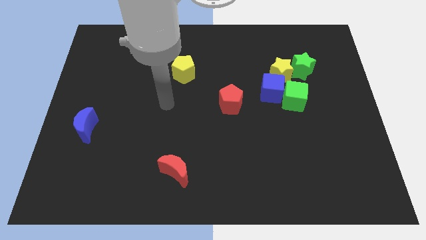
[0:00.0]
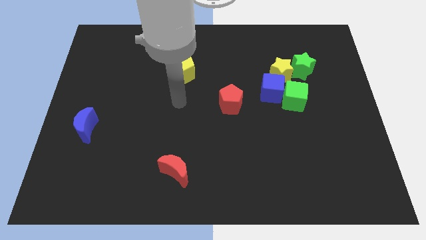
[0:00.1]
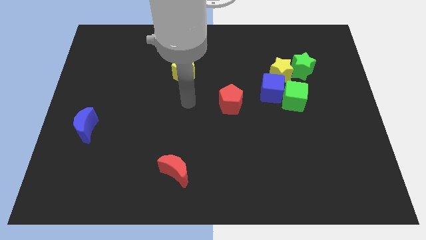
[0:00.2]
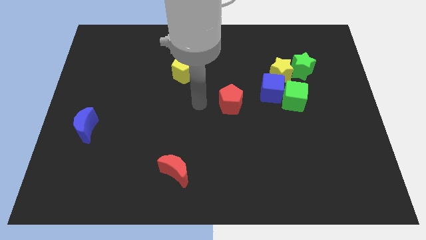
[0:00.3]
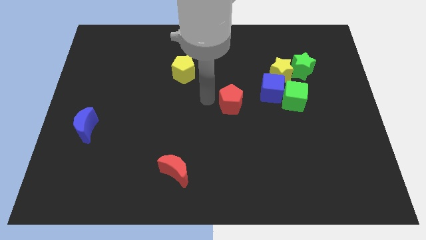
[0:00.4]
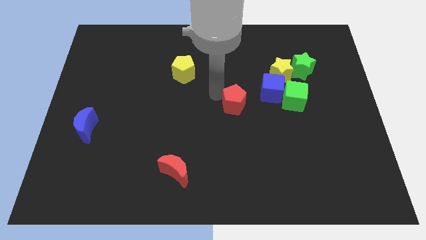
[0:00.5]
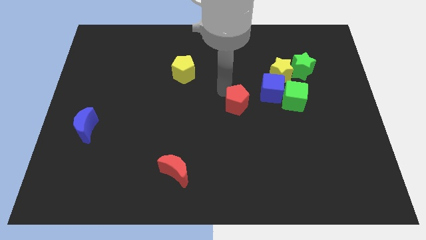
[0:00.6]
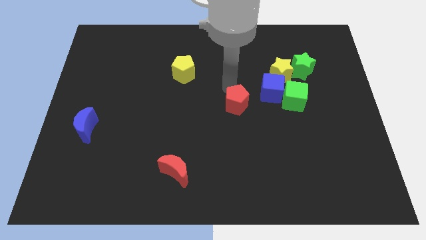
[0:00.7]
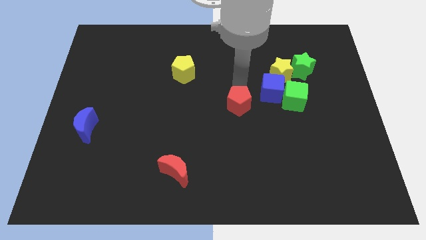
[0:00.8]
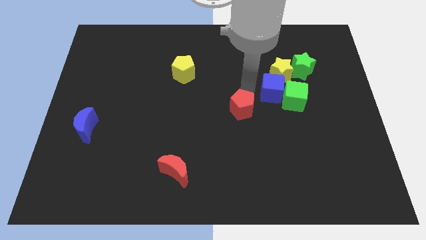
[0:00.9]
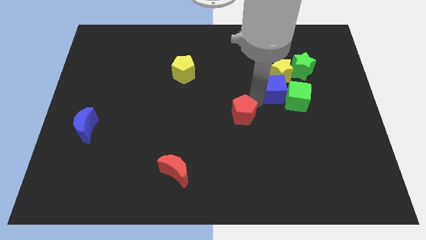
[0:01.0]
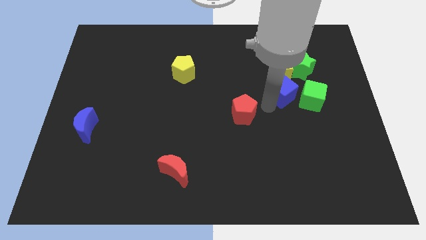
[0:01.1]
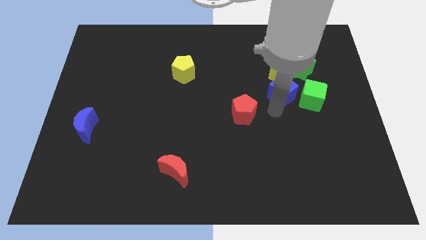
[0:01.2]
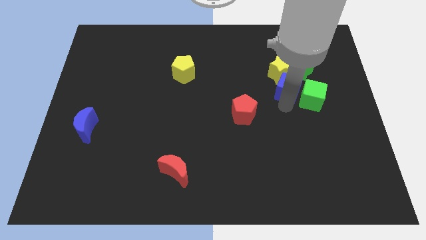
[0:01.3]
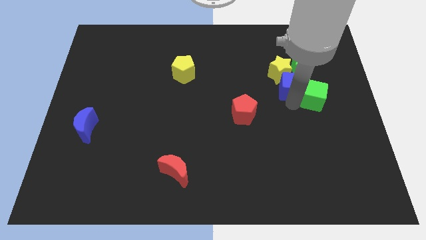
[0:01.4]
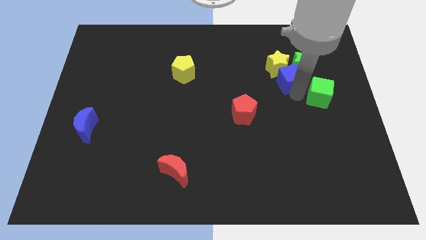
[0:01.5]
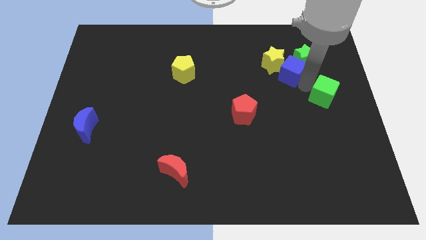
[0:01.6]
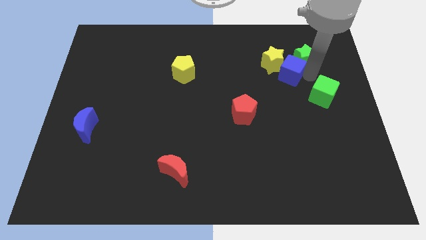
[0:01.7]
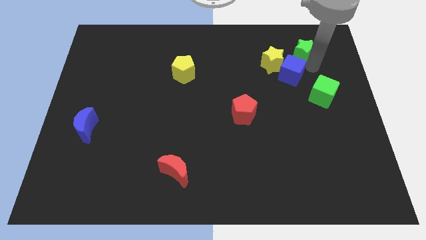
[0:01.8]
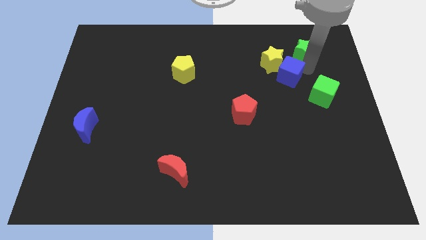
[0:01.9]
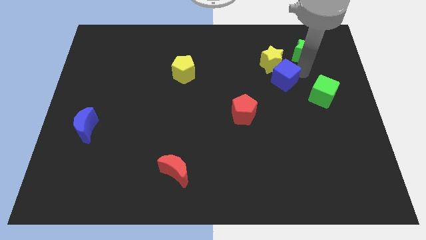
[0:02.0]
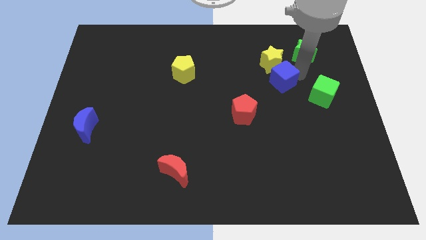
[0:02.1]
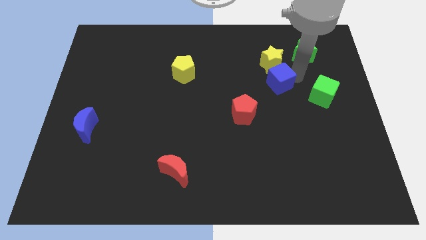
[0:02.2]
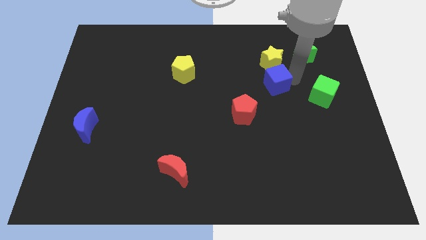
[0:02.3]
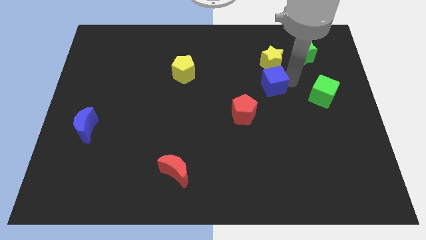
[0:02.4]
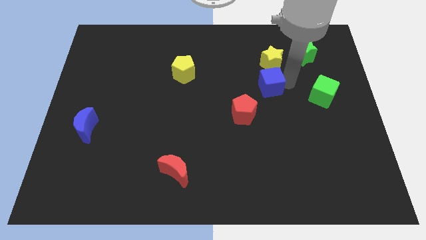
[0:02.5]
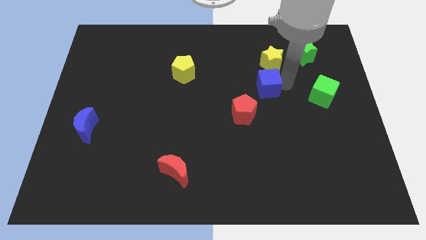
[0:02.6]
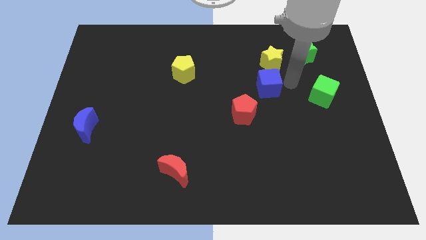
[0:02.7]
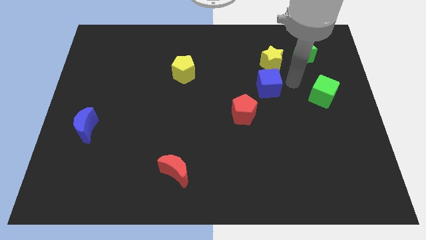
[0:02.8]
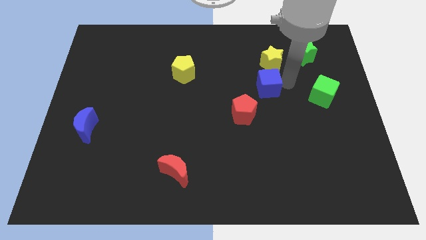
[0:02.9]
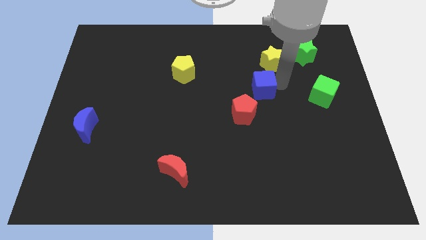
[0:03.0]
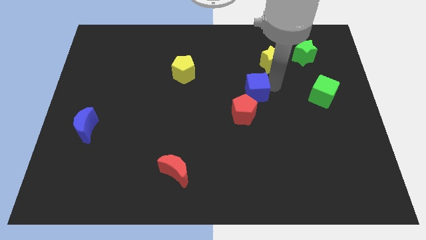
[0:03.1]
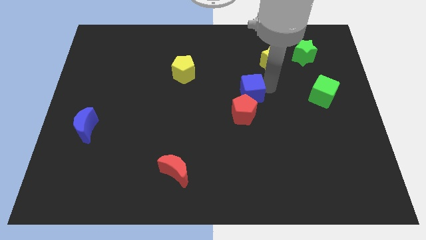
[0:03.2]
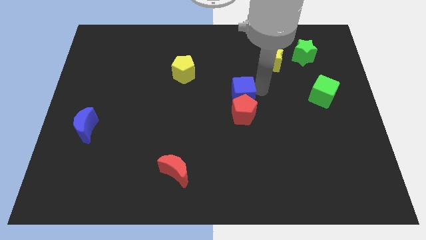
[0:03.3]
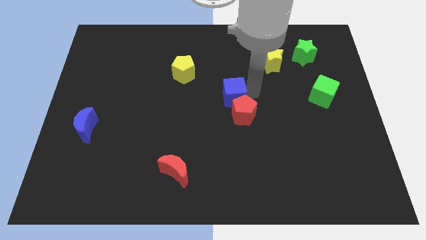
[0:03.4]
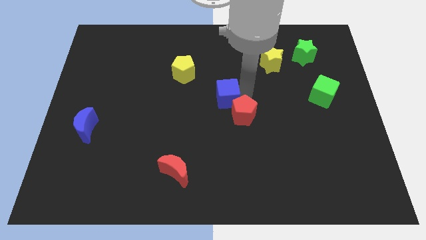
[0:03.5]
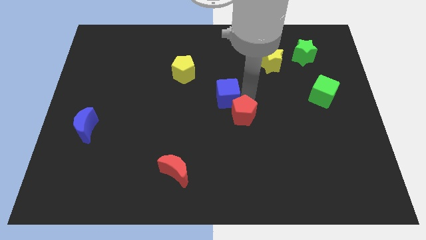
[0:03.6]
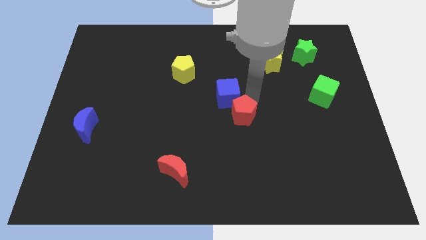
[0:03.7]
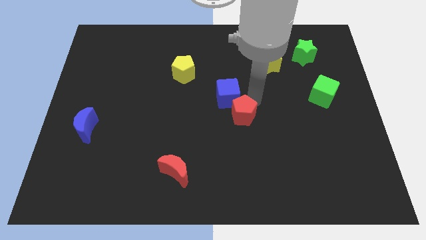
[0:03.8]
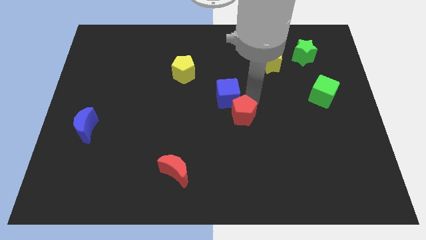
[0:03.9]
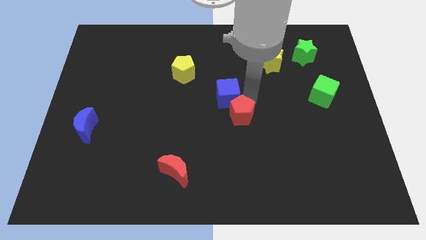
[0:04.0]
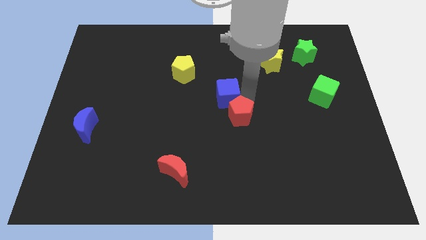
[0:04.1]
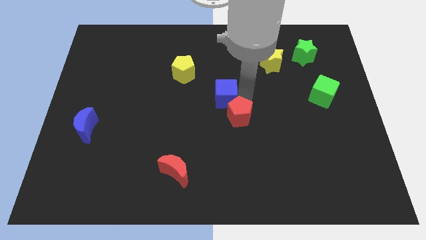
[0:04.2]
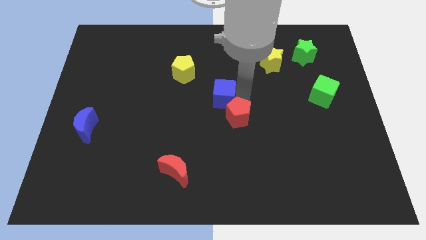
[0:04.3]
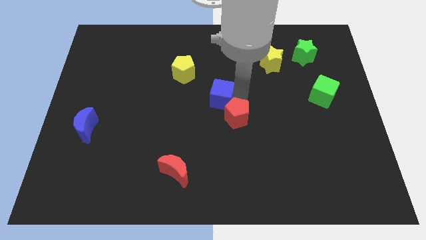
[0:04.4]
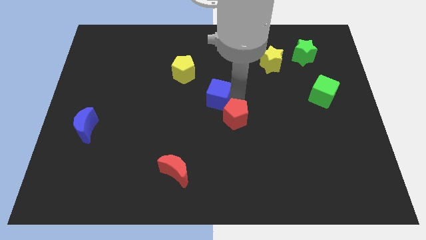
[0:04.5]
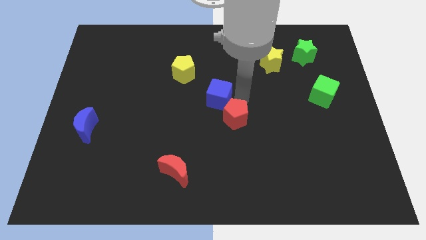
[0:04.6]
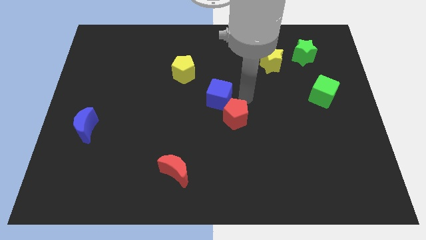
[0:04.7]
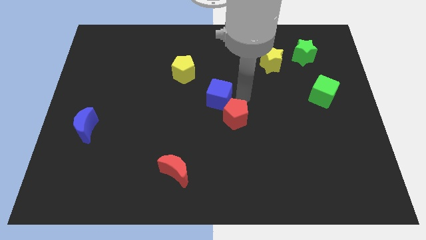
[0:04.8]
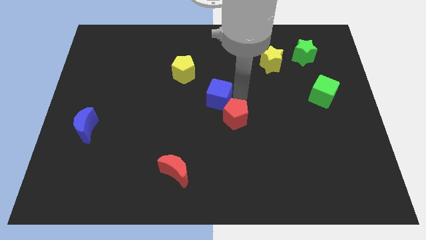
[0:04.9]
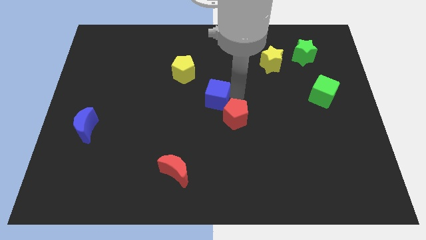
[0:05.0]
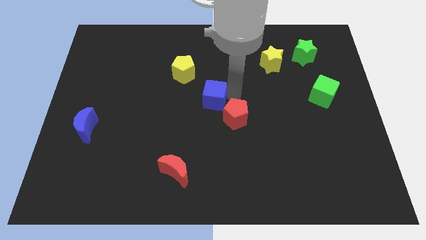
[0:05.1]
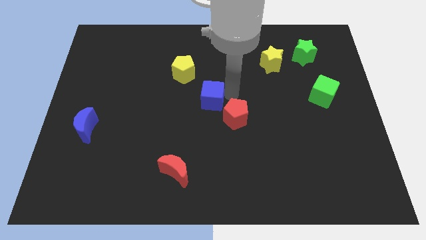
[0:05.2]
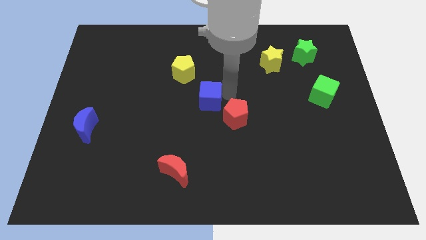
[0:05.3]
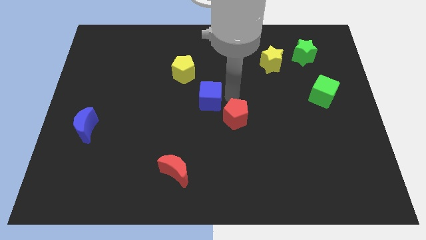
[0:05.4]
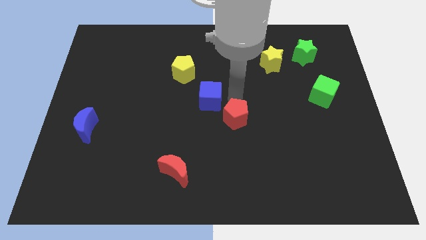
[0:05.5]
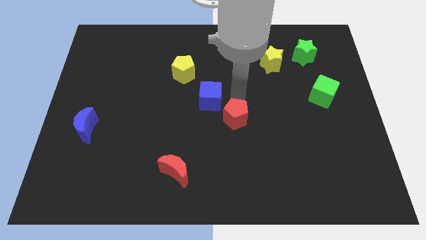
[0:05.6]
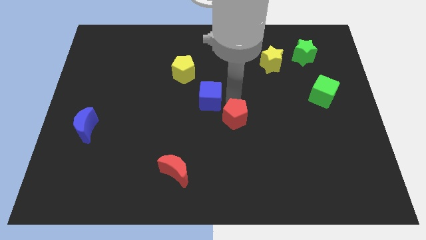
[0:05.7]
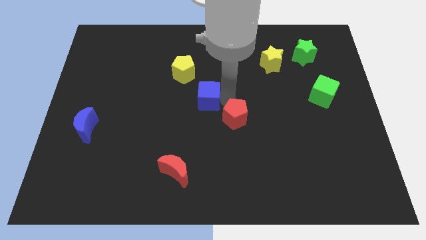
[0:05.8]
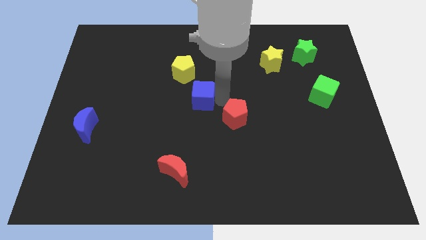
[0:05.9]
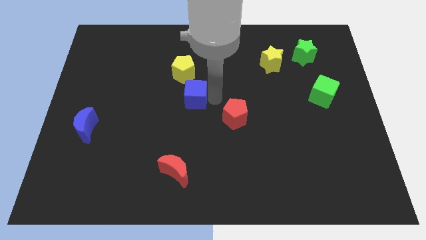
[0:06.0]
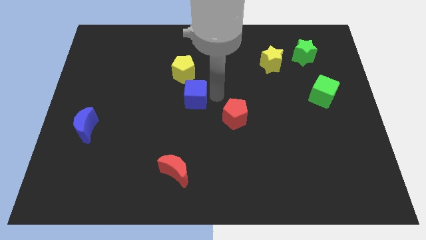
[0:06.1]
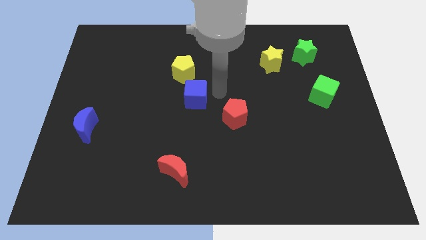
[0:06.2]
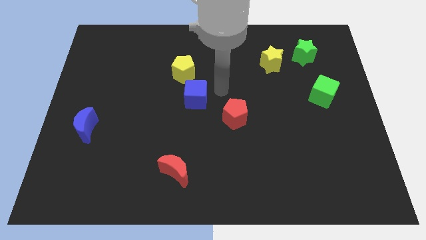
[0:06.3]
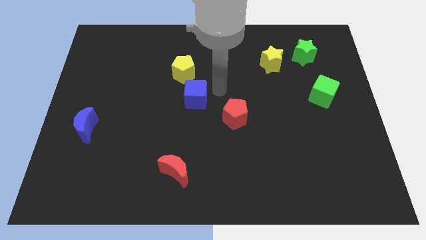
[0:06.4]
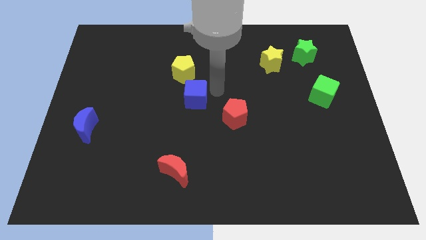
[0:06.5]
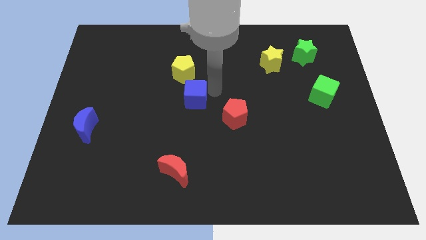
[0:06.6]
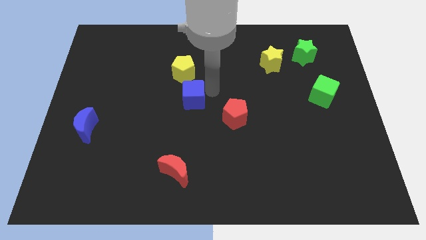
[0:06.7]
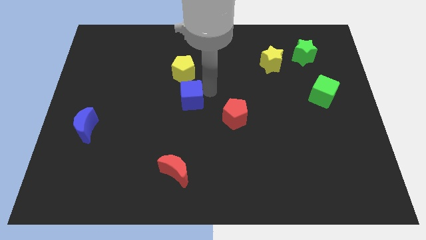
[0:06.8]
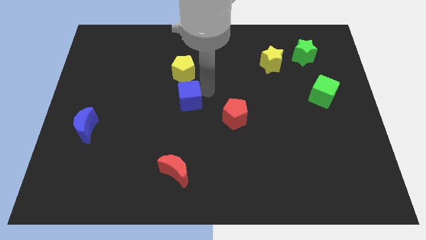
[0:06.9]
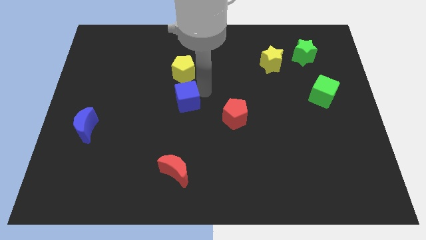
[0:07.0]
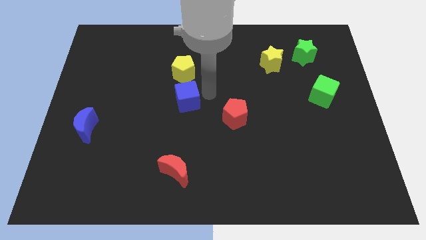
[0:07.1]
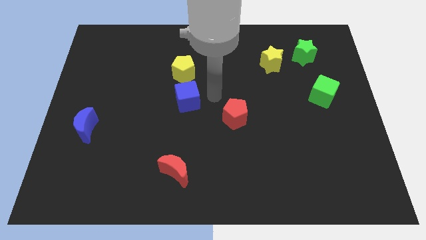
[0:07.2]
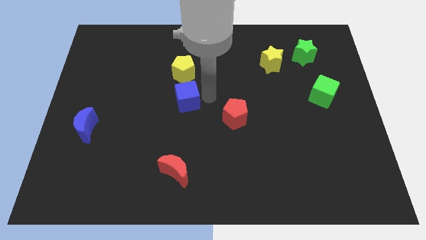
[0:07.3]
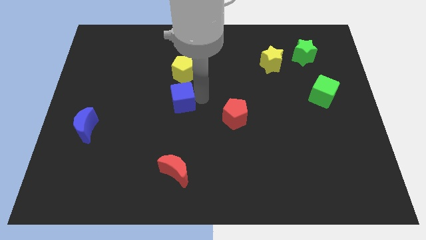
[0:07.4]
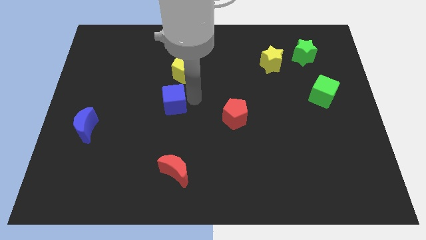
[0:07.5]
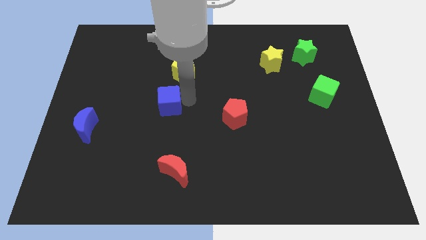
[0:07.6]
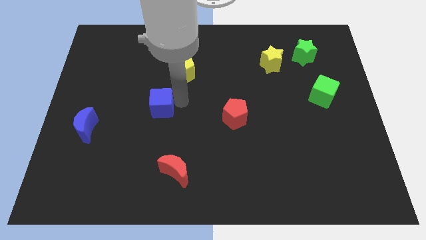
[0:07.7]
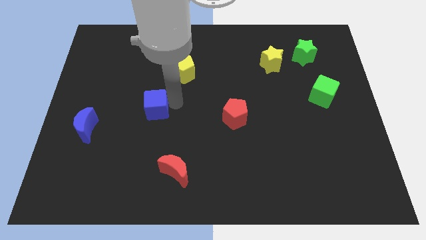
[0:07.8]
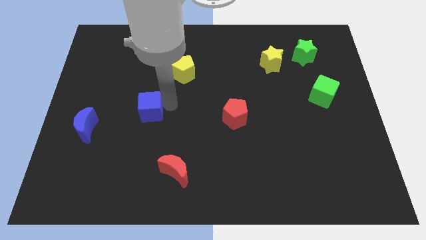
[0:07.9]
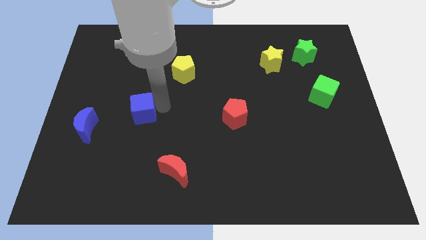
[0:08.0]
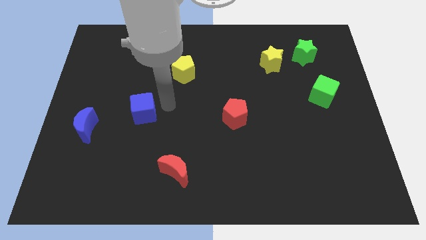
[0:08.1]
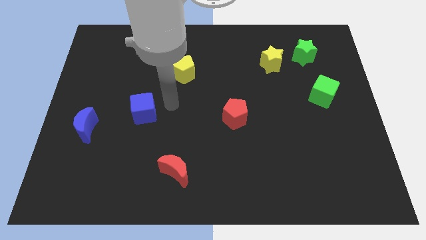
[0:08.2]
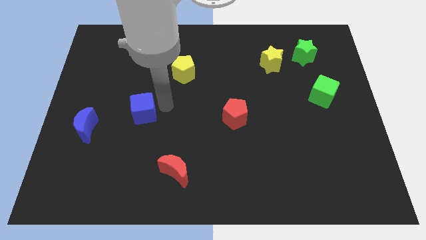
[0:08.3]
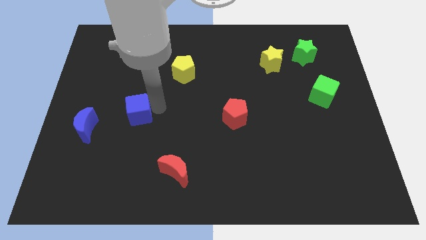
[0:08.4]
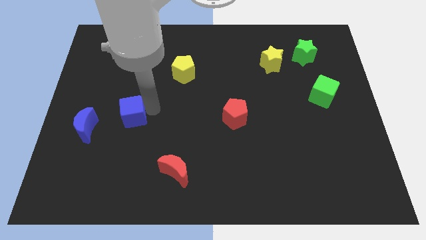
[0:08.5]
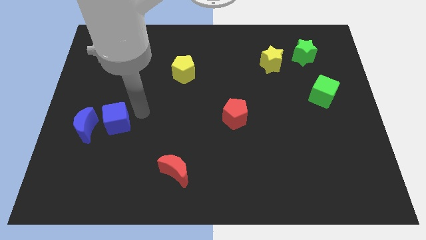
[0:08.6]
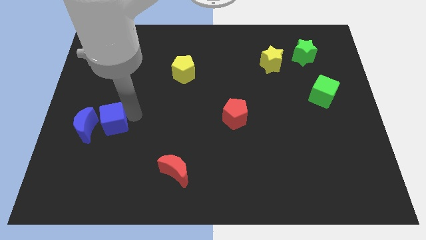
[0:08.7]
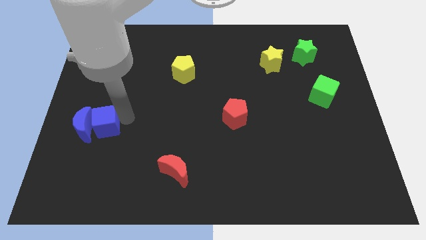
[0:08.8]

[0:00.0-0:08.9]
put the blue cube to the blue moon
